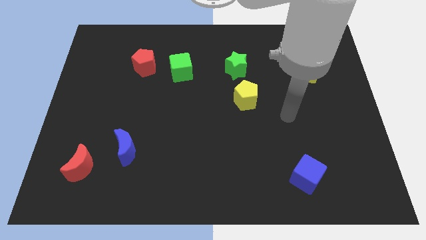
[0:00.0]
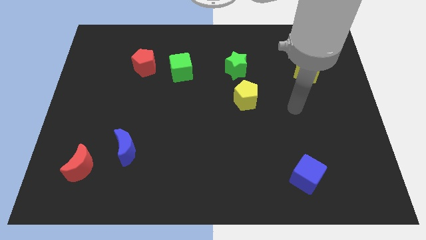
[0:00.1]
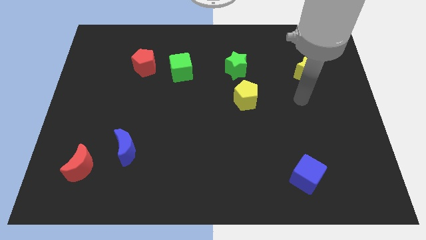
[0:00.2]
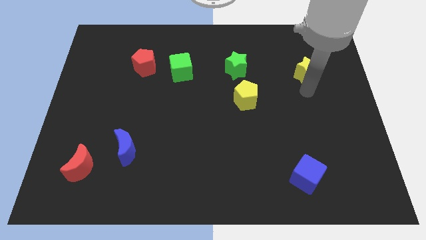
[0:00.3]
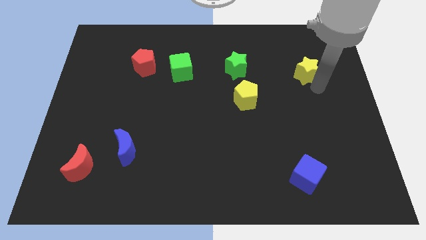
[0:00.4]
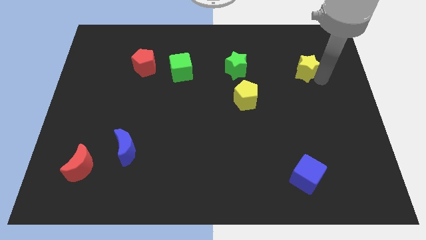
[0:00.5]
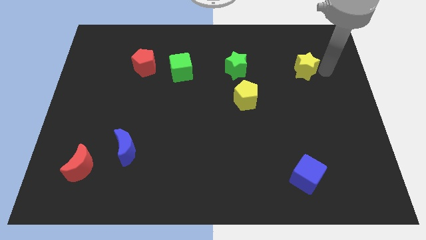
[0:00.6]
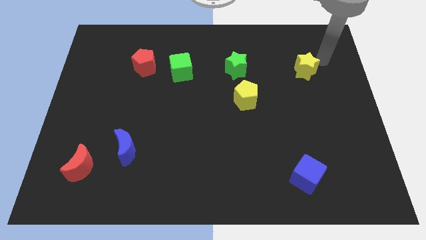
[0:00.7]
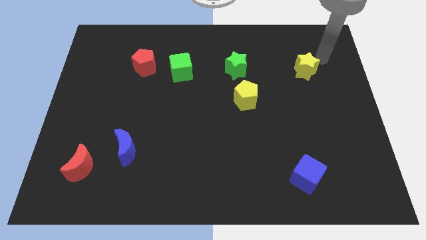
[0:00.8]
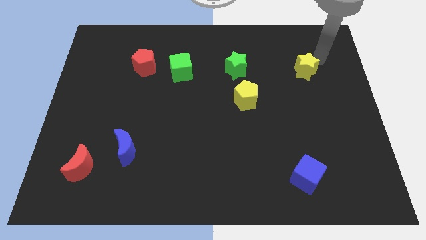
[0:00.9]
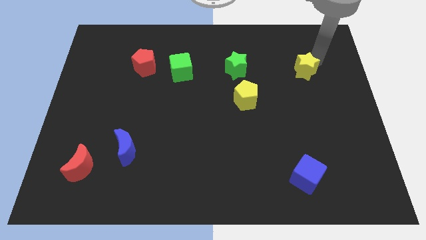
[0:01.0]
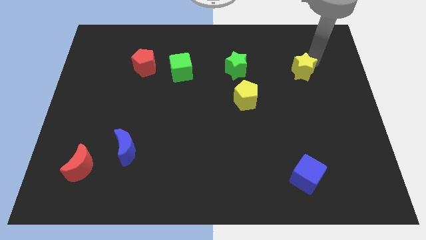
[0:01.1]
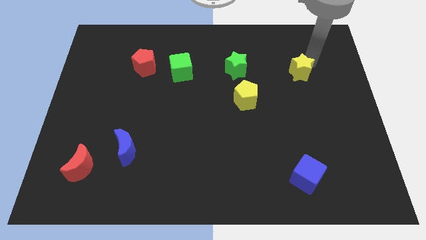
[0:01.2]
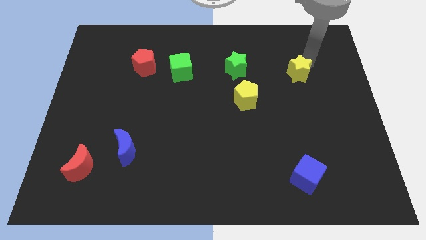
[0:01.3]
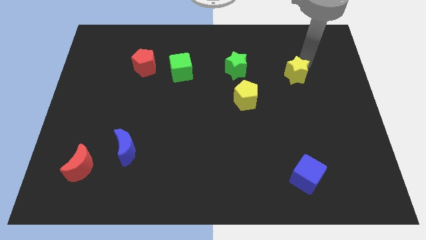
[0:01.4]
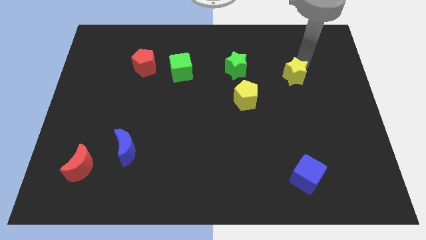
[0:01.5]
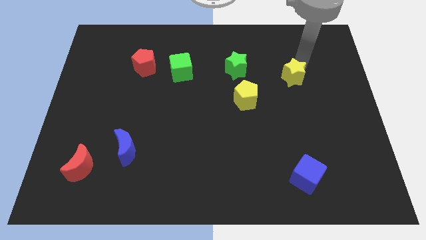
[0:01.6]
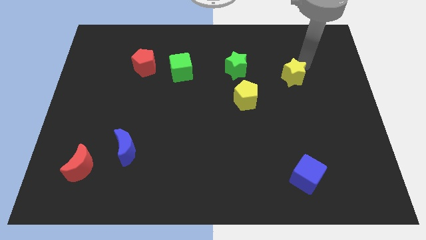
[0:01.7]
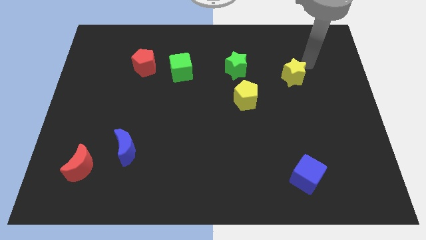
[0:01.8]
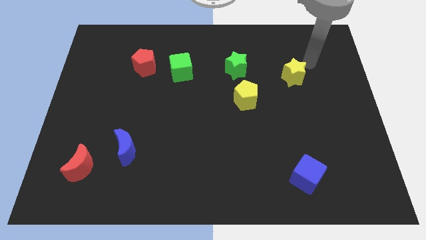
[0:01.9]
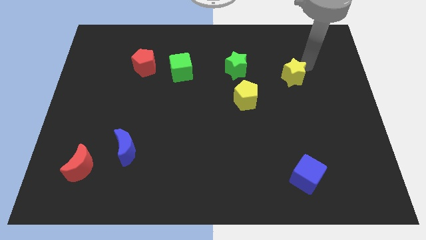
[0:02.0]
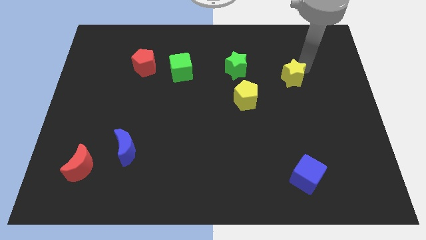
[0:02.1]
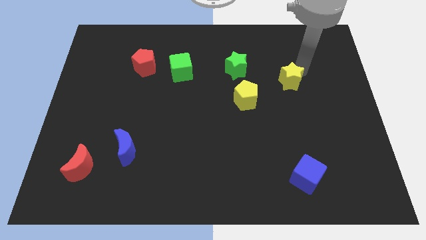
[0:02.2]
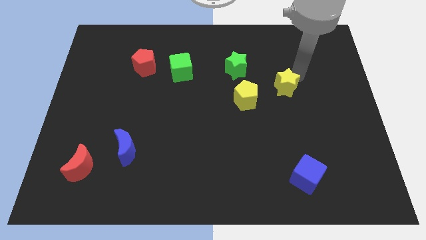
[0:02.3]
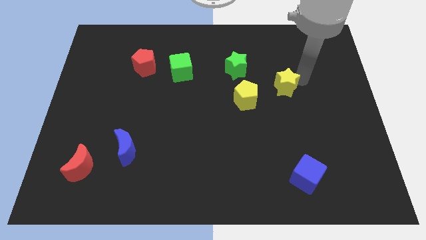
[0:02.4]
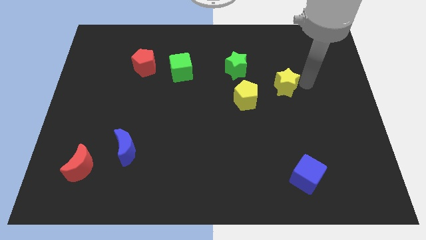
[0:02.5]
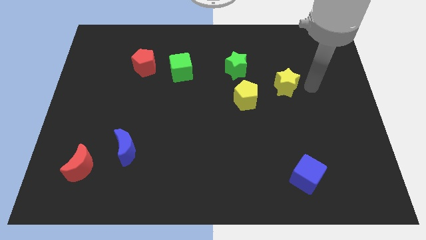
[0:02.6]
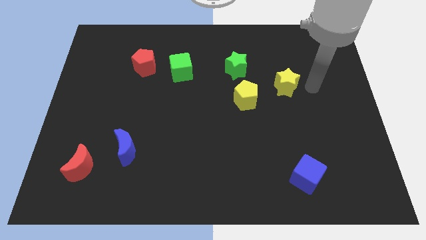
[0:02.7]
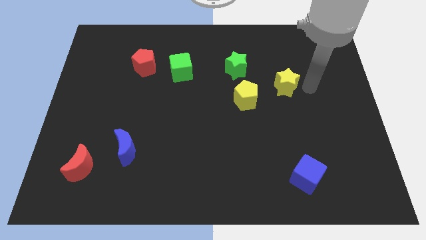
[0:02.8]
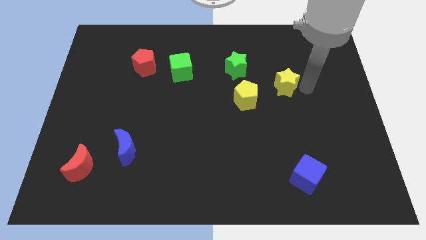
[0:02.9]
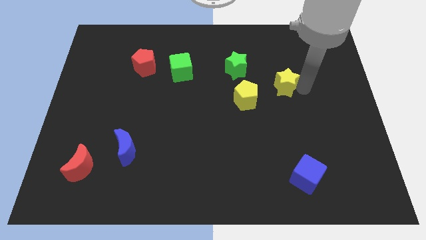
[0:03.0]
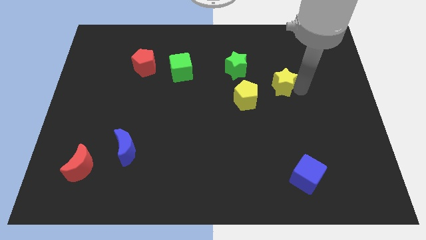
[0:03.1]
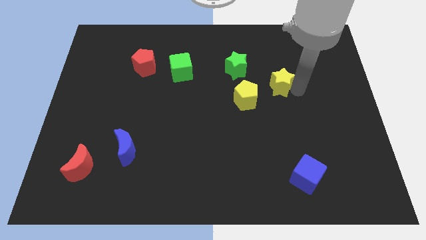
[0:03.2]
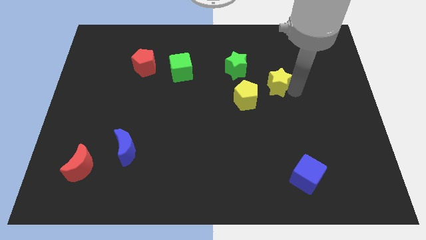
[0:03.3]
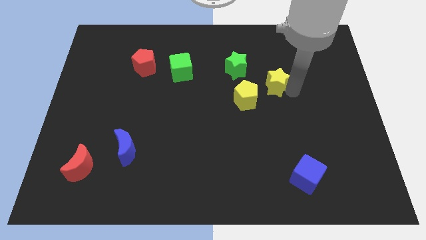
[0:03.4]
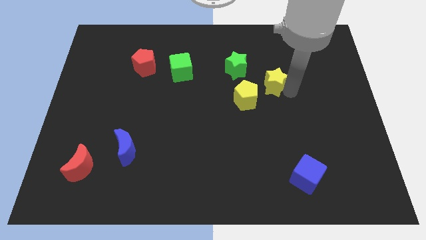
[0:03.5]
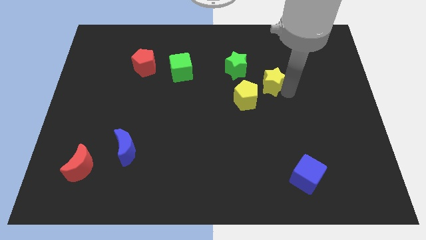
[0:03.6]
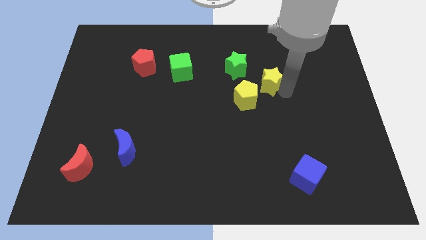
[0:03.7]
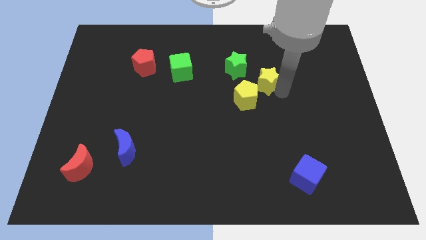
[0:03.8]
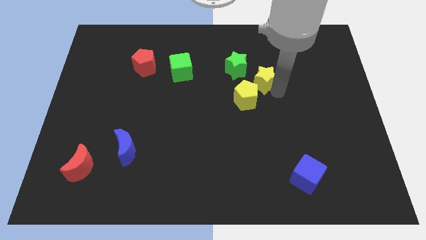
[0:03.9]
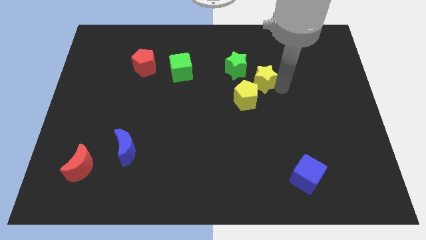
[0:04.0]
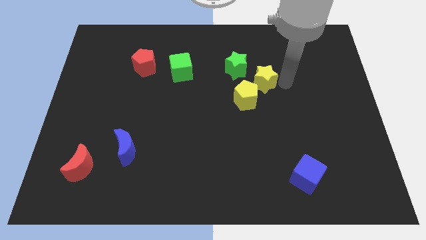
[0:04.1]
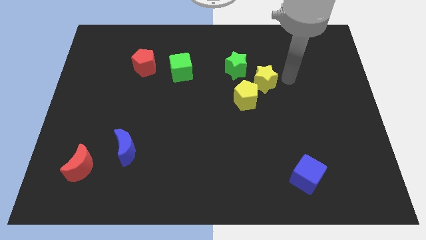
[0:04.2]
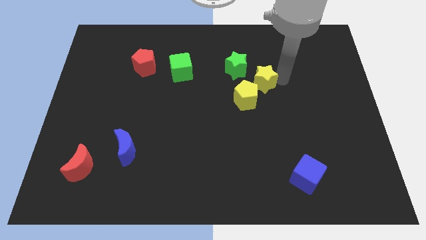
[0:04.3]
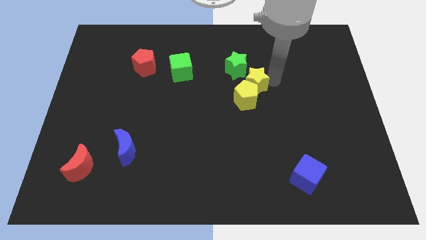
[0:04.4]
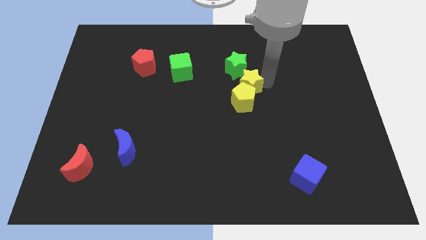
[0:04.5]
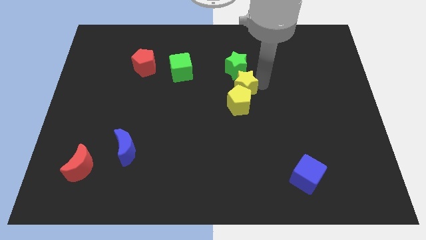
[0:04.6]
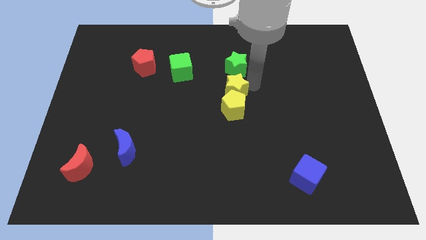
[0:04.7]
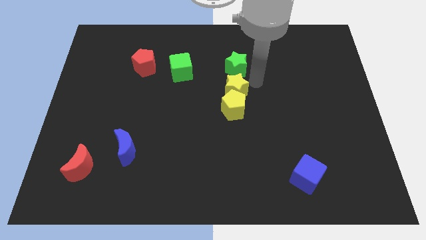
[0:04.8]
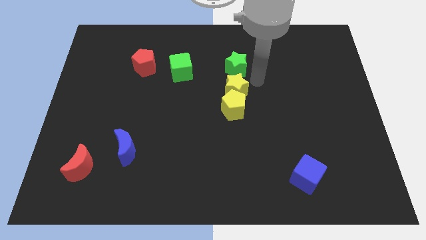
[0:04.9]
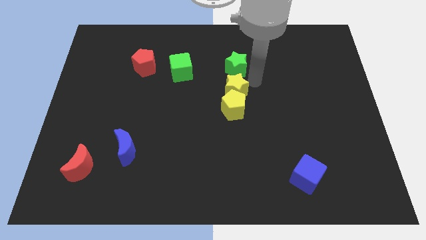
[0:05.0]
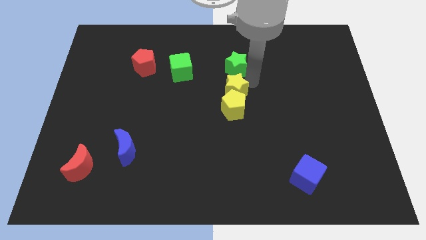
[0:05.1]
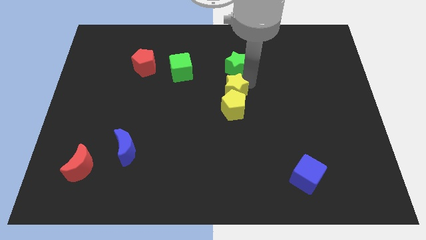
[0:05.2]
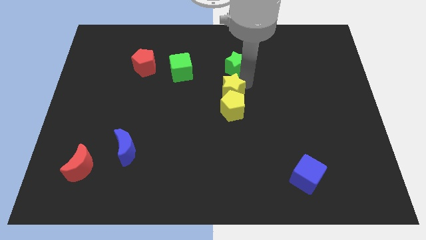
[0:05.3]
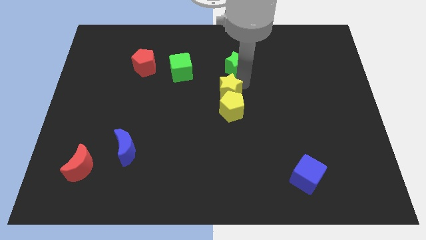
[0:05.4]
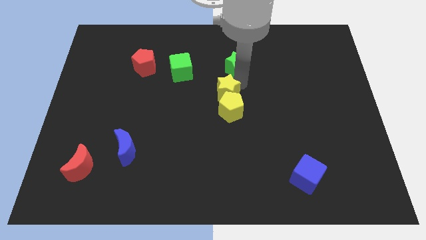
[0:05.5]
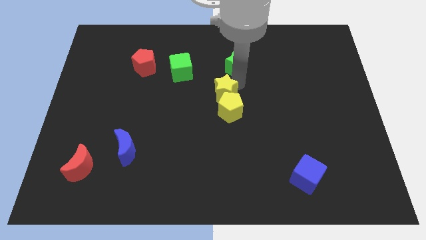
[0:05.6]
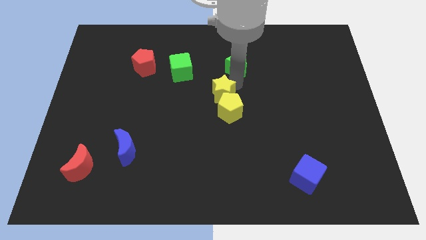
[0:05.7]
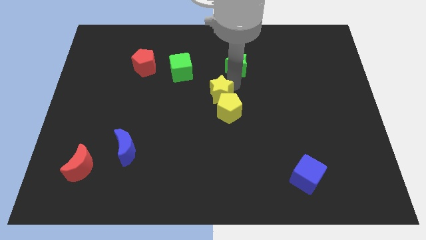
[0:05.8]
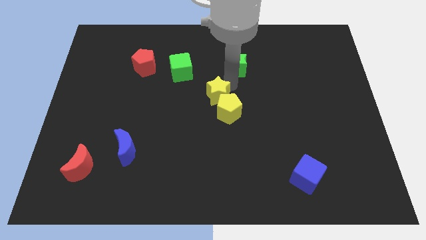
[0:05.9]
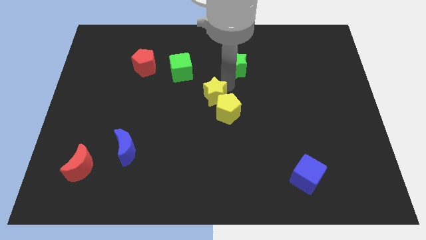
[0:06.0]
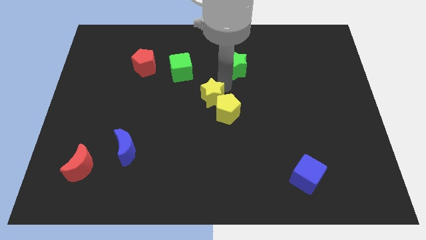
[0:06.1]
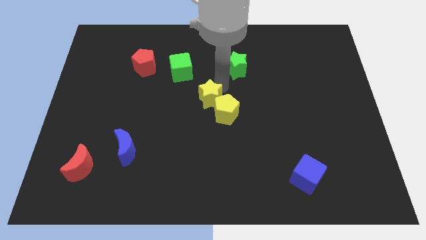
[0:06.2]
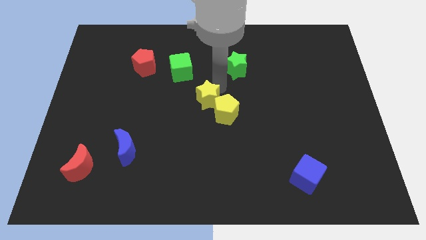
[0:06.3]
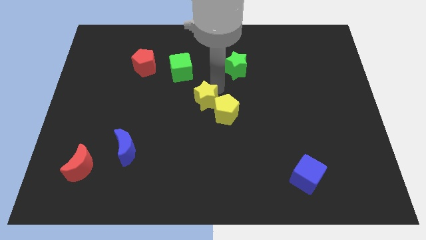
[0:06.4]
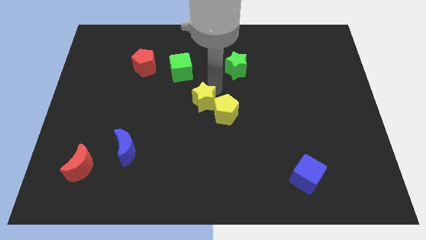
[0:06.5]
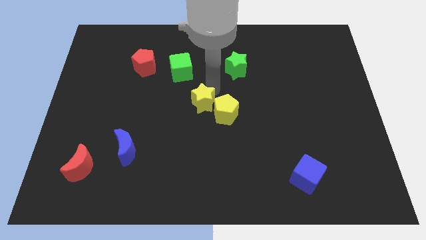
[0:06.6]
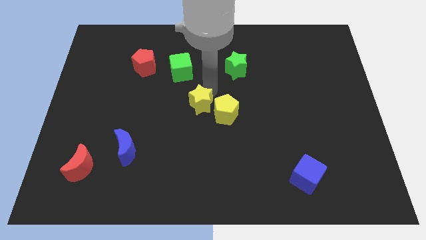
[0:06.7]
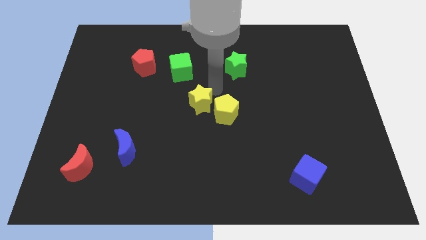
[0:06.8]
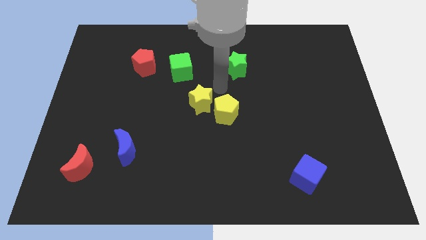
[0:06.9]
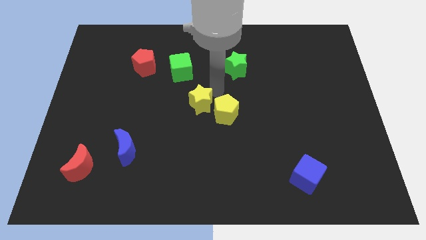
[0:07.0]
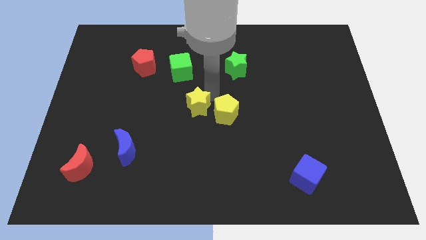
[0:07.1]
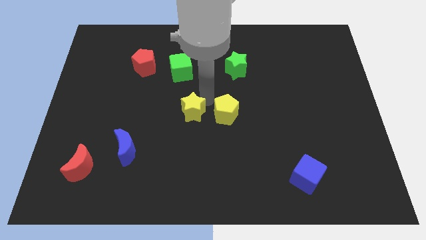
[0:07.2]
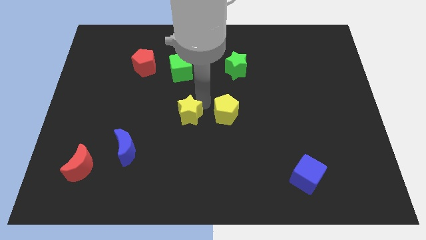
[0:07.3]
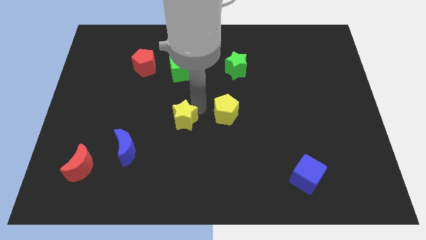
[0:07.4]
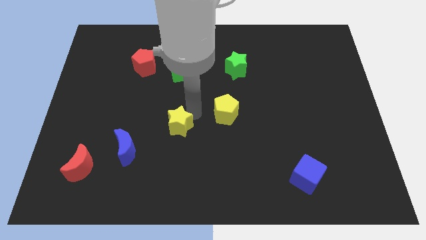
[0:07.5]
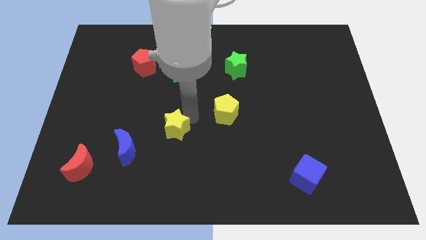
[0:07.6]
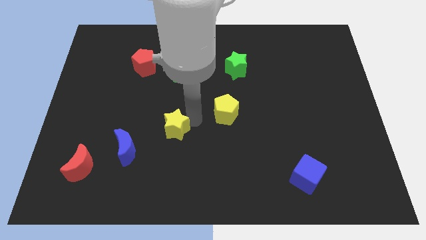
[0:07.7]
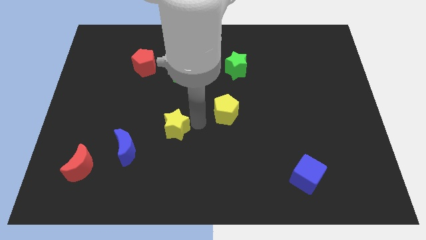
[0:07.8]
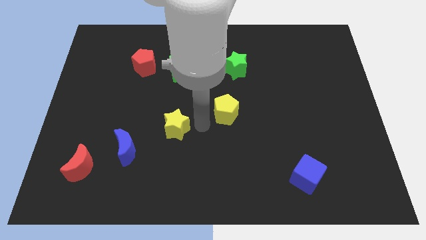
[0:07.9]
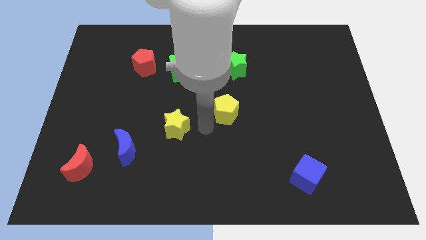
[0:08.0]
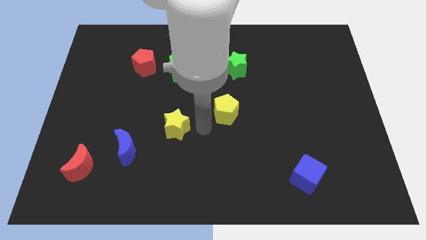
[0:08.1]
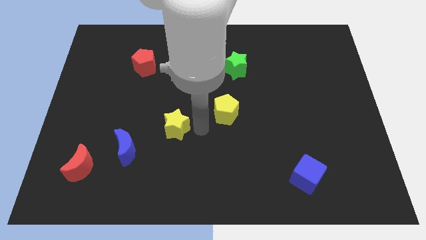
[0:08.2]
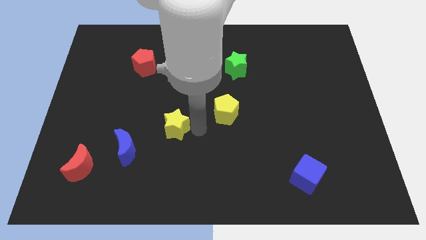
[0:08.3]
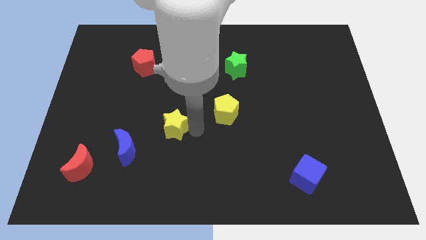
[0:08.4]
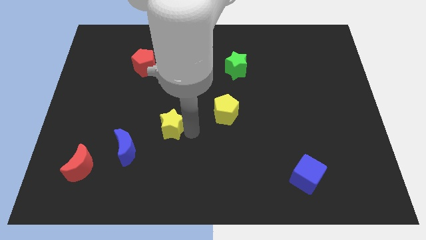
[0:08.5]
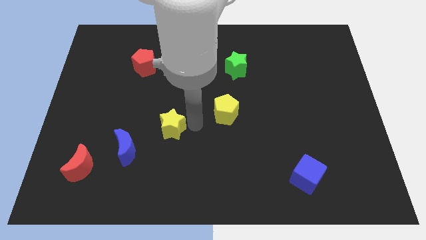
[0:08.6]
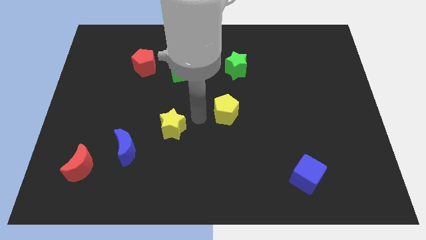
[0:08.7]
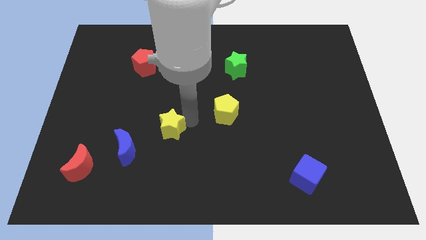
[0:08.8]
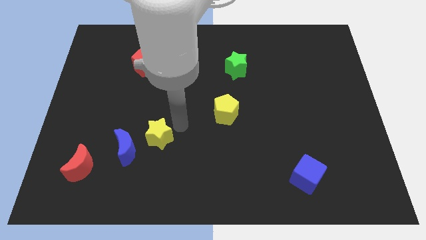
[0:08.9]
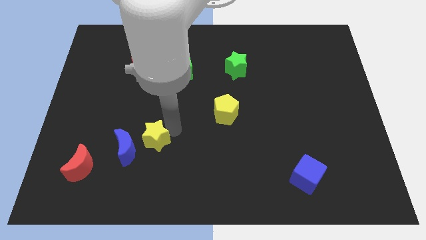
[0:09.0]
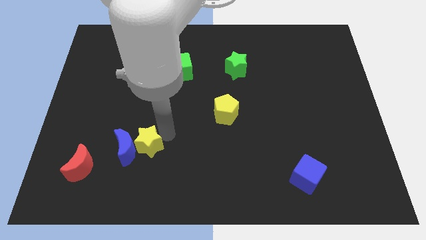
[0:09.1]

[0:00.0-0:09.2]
move the yellow star to the blue moon
